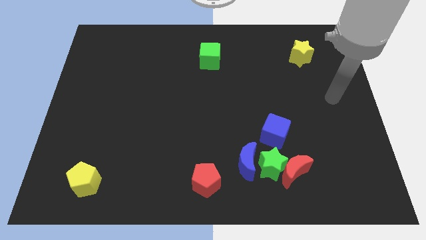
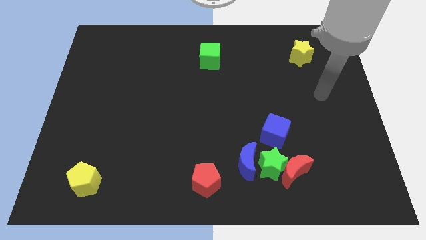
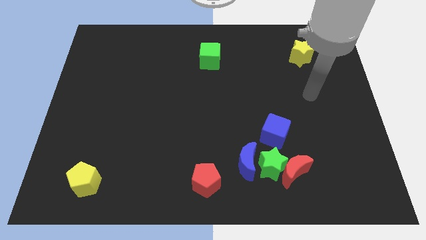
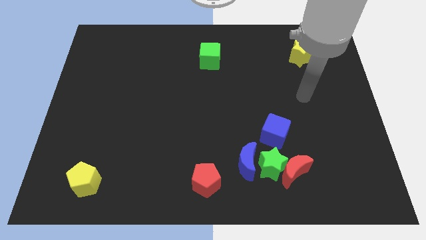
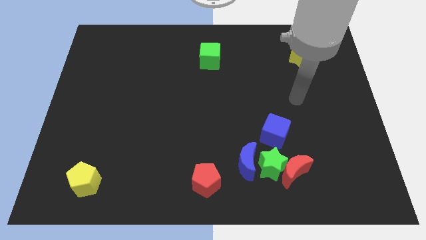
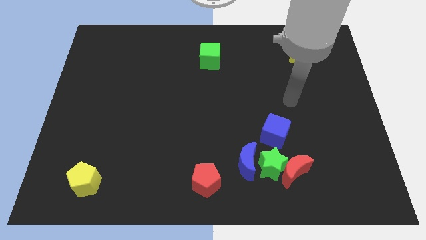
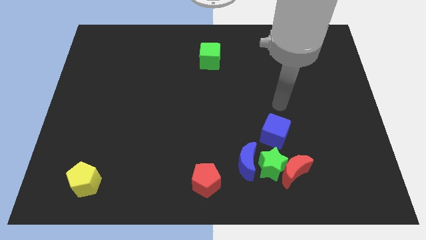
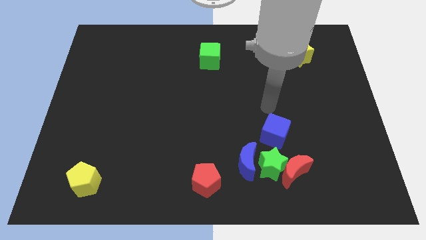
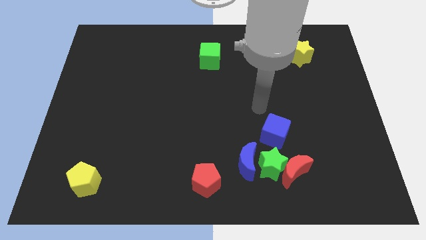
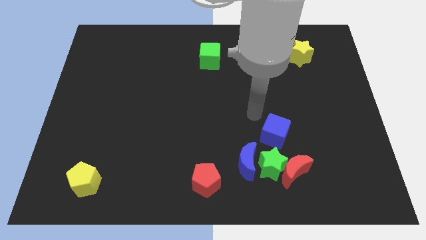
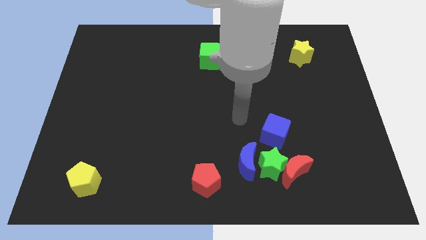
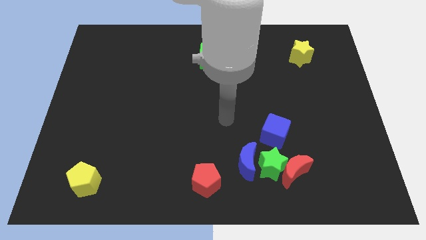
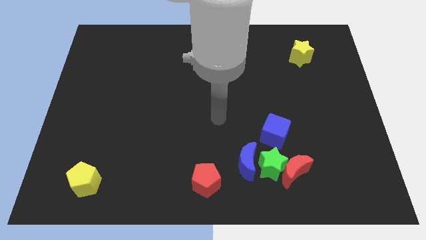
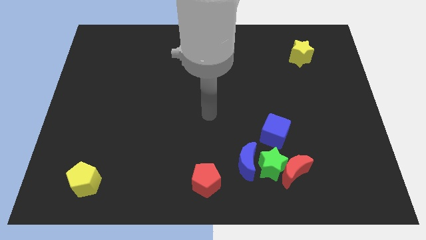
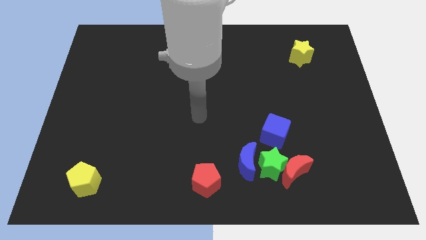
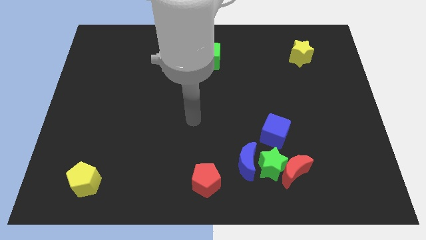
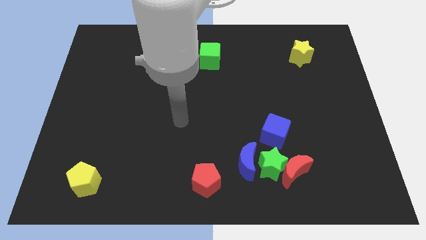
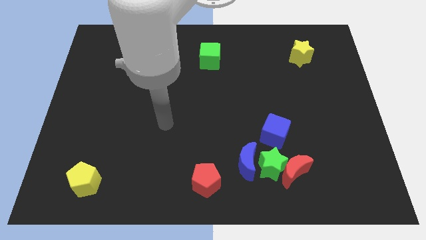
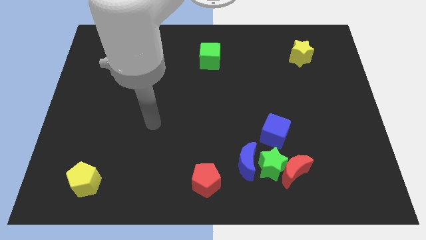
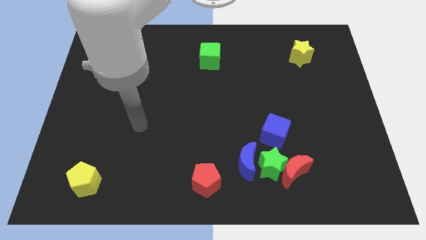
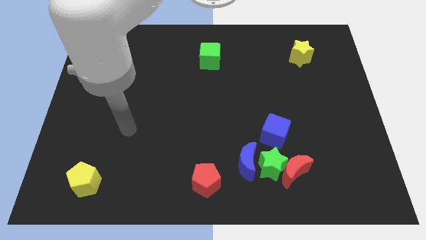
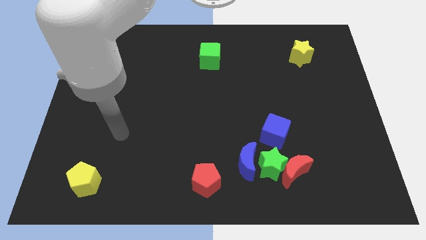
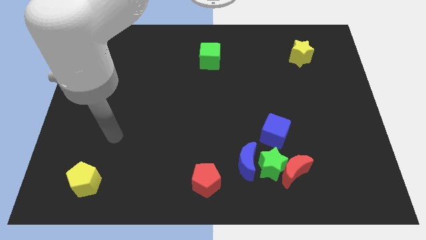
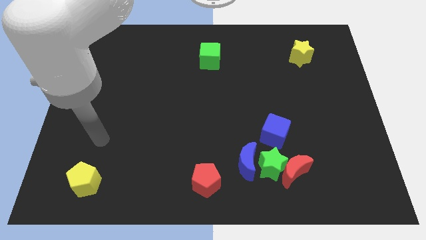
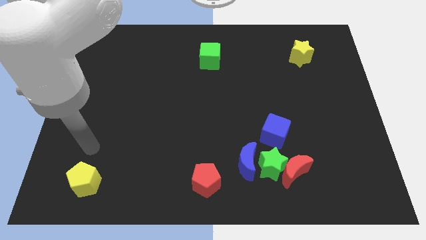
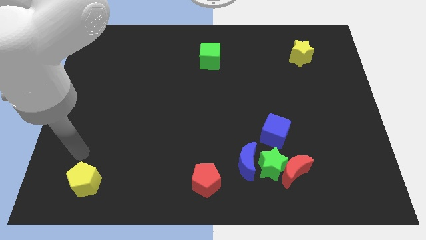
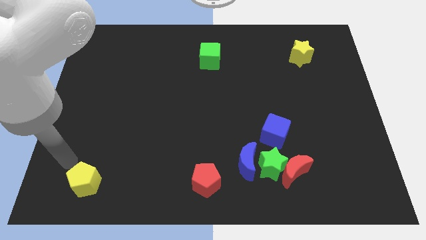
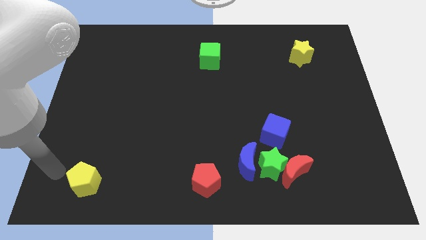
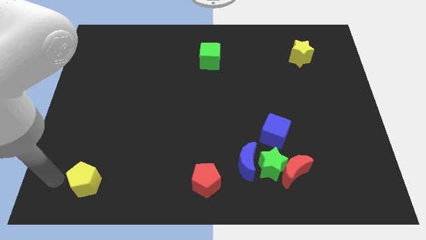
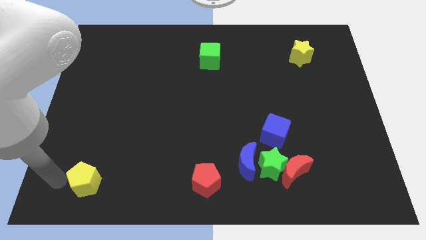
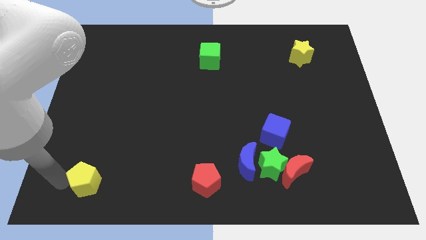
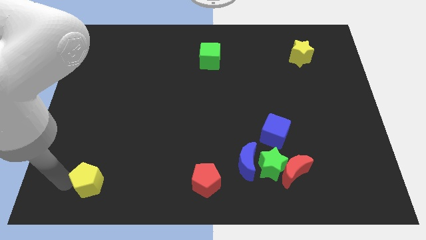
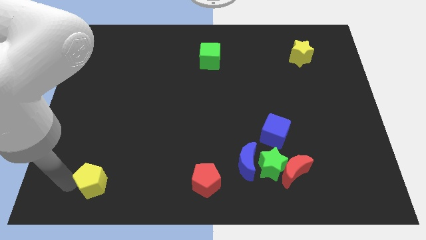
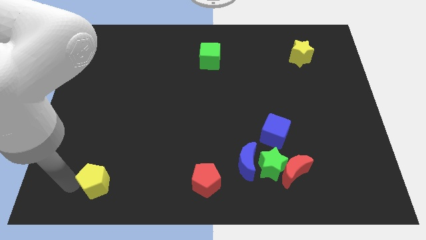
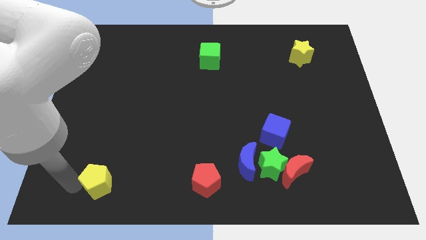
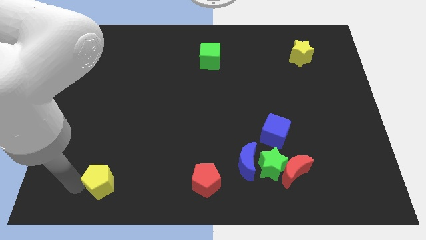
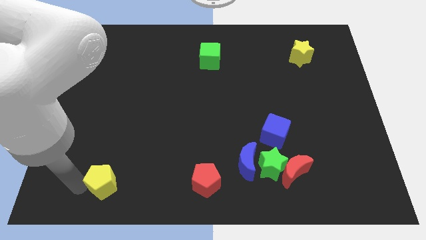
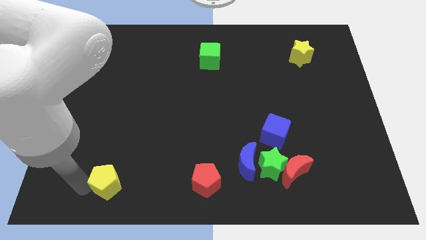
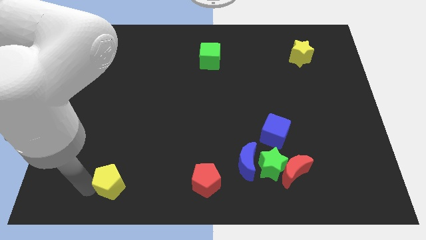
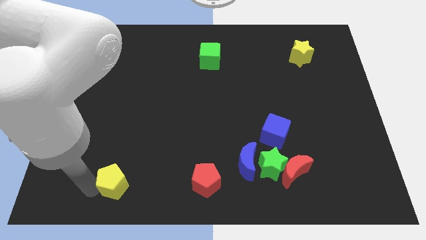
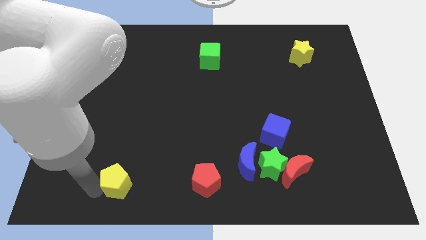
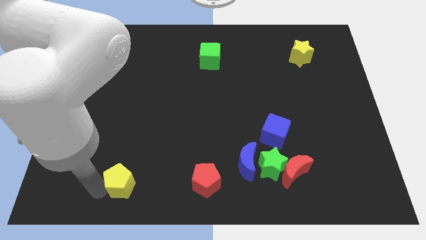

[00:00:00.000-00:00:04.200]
move the yellow pentagon right a little bit

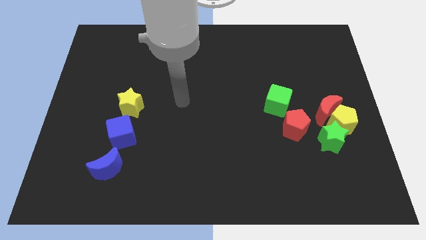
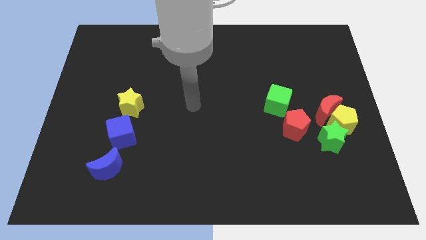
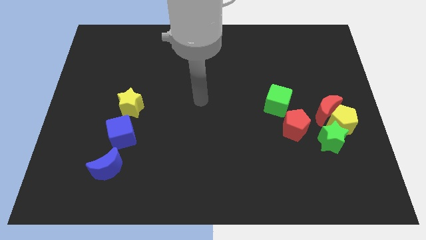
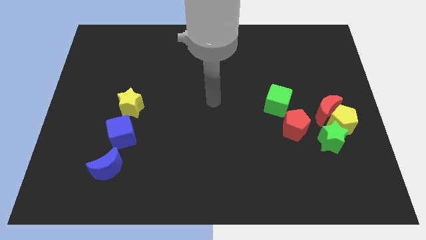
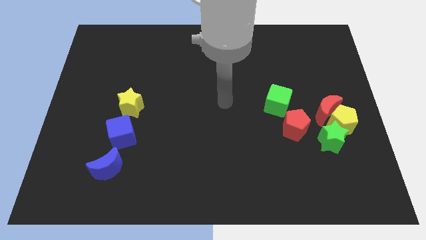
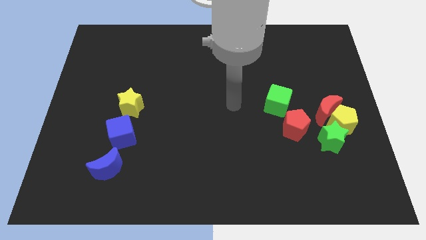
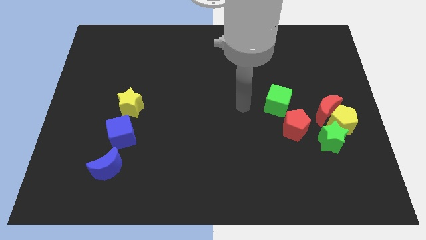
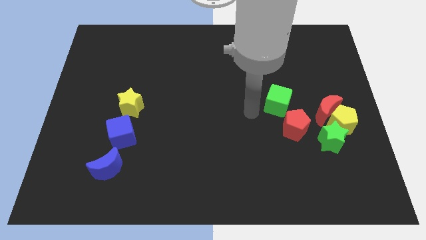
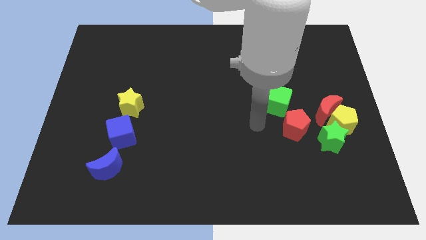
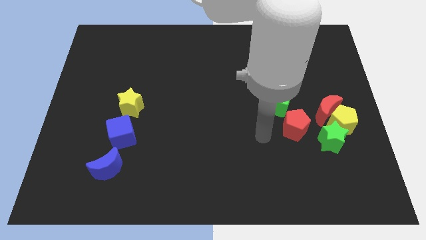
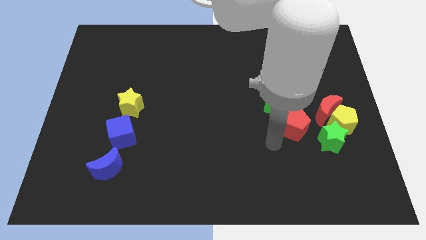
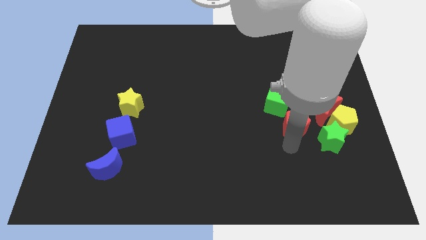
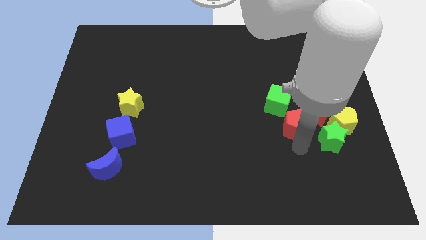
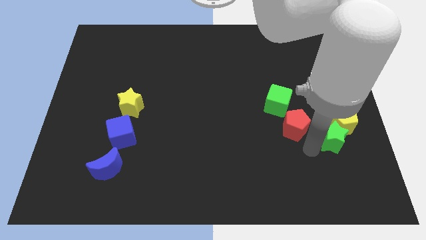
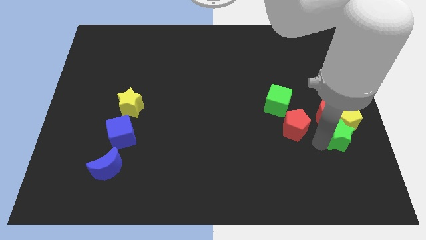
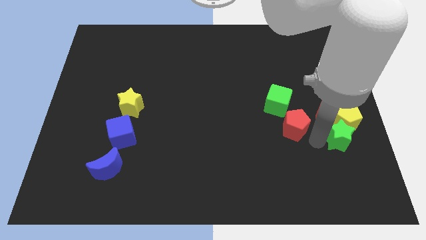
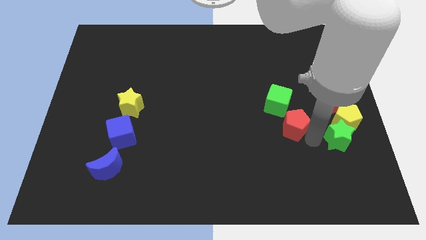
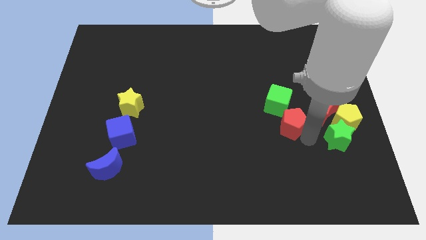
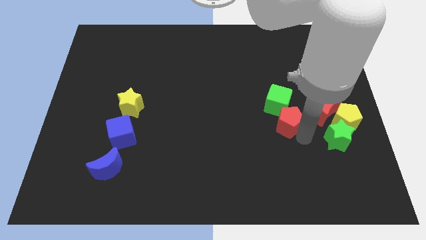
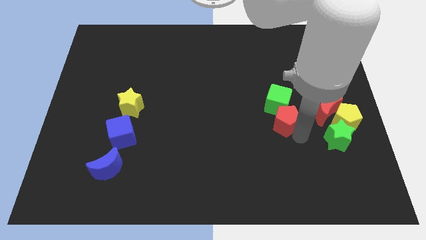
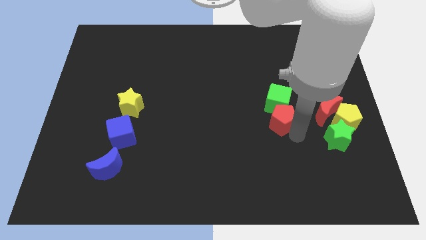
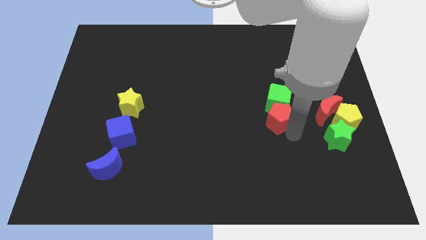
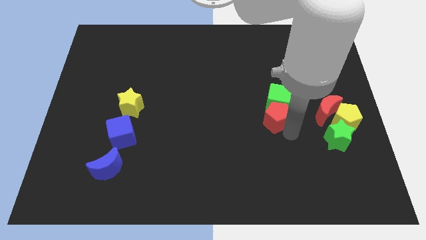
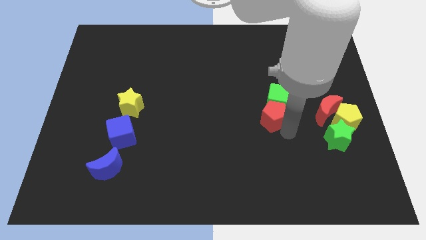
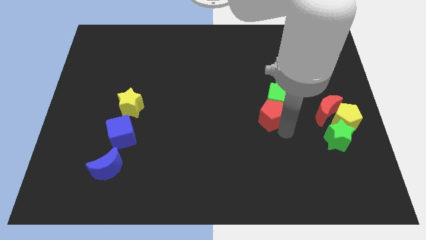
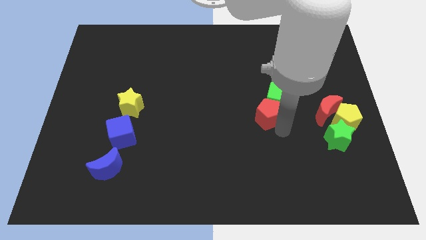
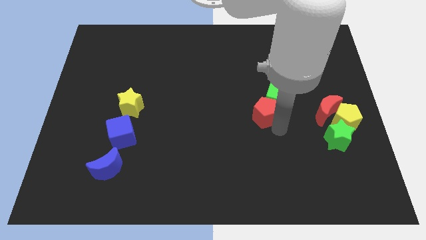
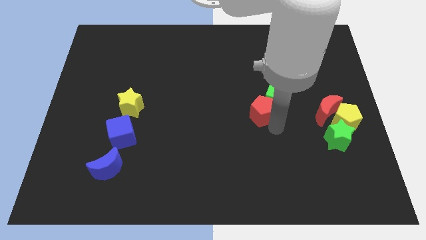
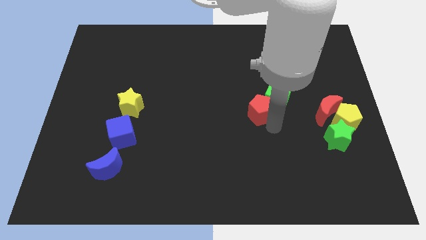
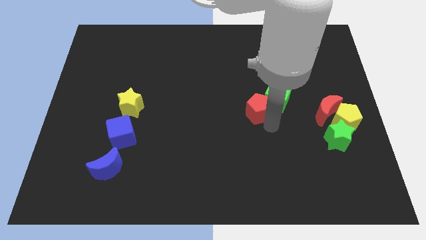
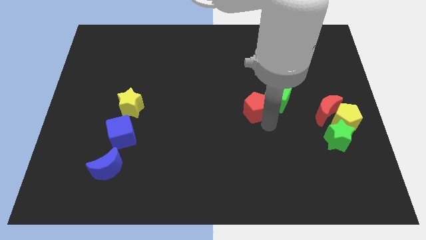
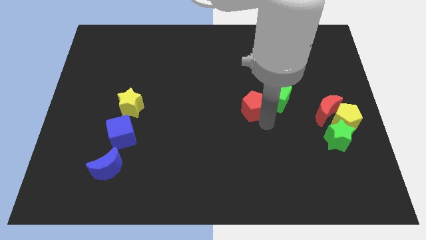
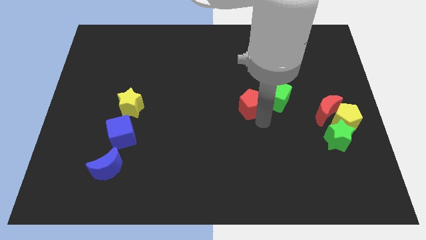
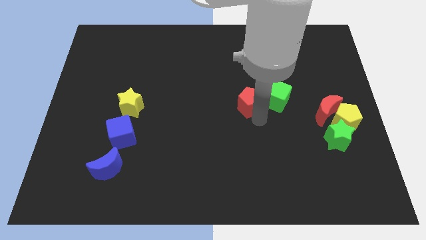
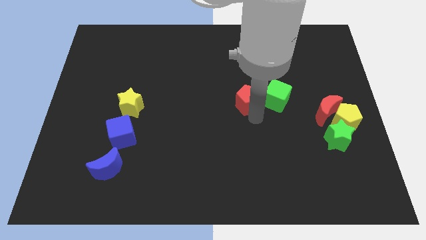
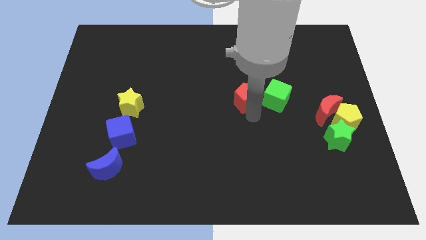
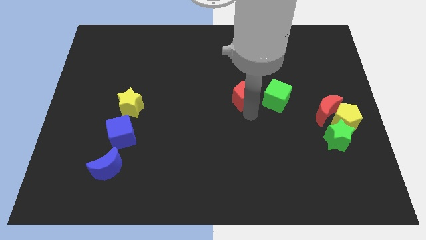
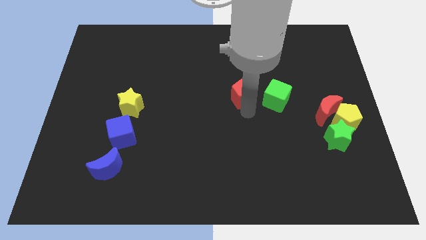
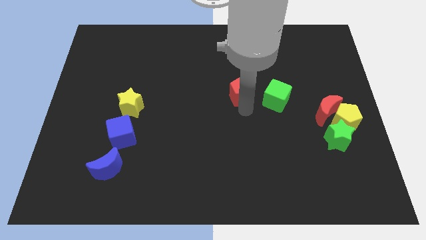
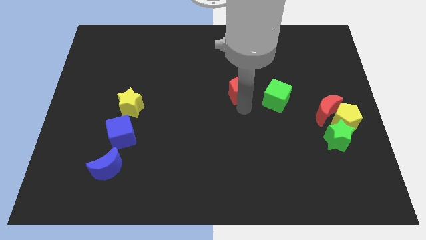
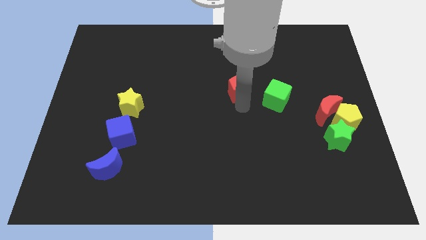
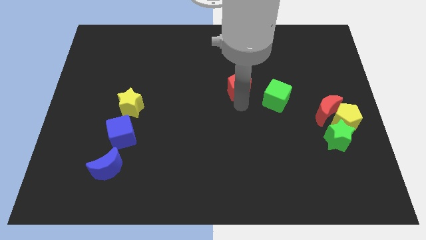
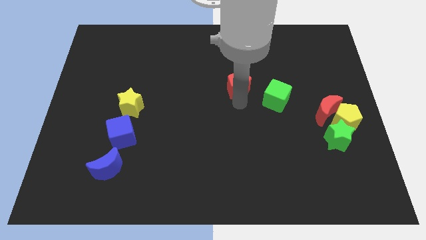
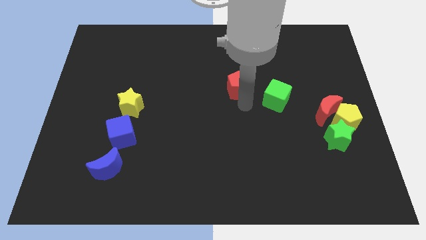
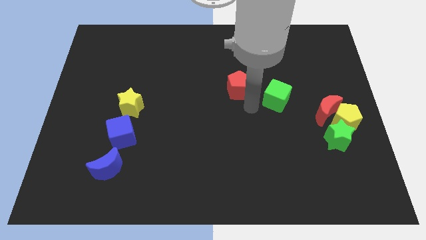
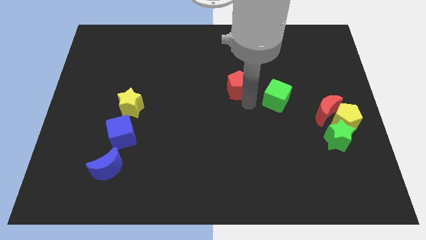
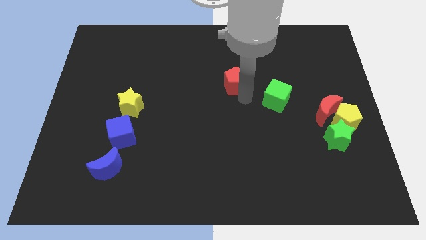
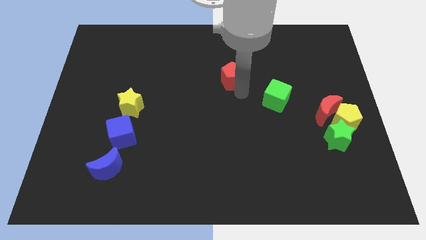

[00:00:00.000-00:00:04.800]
move the red pentagon upwards and then to the left
